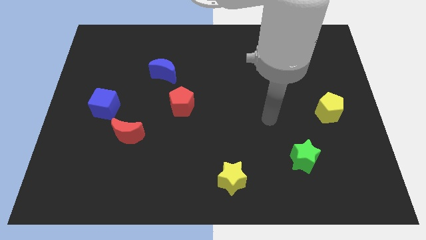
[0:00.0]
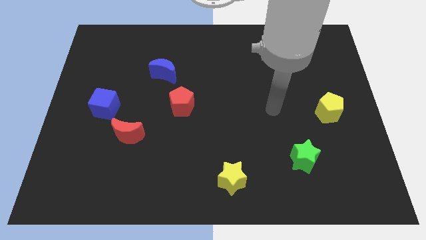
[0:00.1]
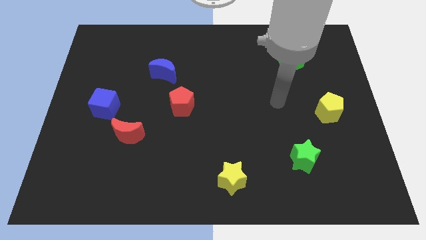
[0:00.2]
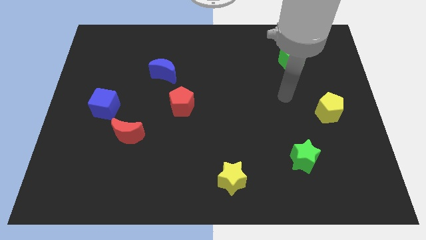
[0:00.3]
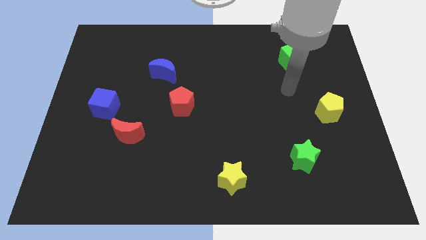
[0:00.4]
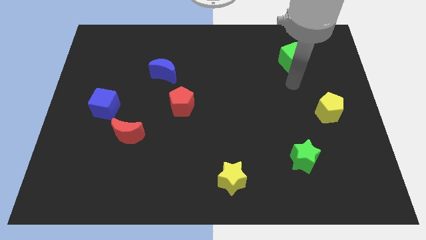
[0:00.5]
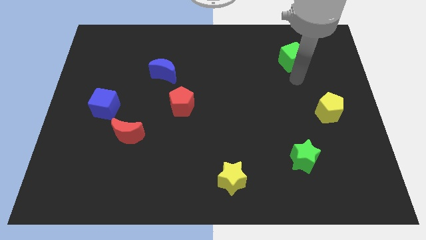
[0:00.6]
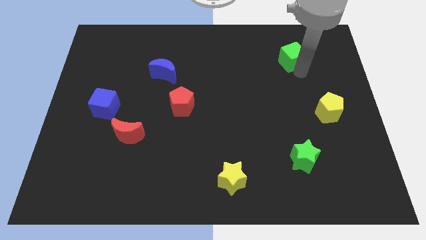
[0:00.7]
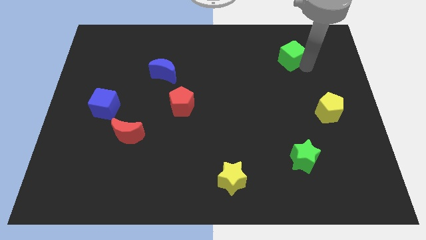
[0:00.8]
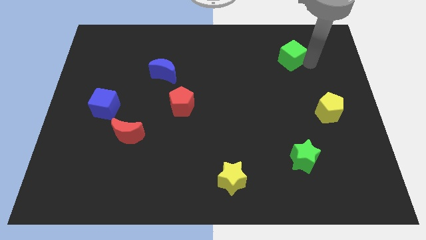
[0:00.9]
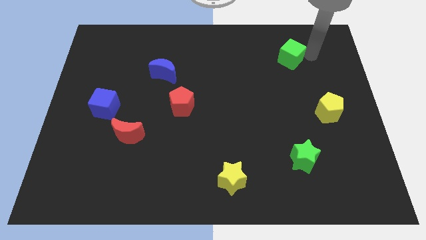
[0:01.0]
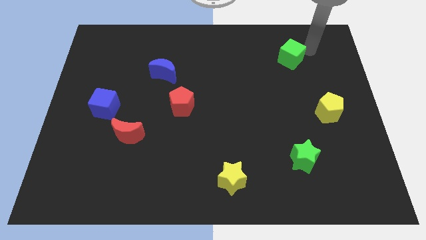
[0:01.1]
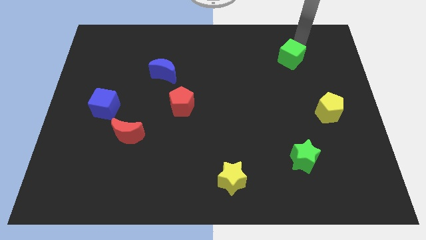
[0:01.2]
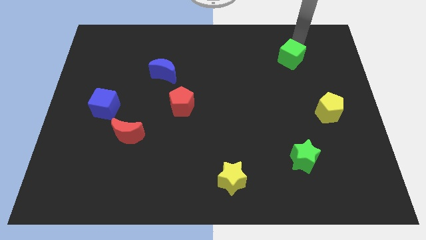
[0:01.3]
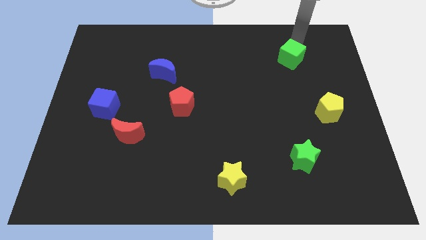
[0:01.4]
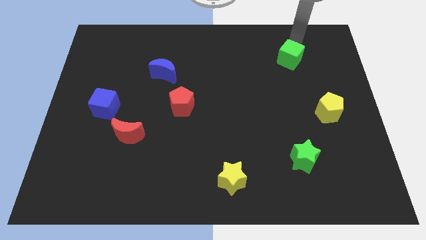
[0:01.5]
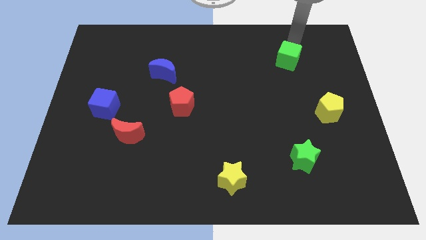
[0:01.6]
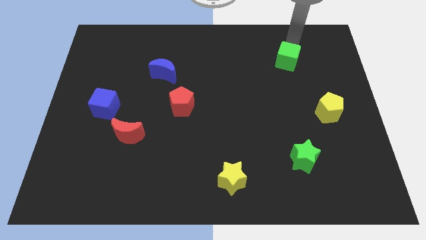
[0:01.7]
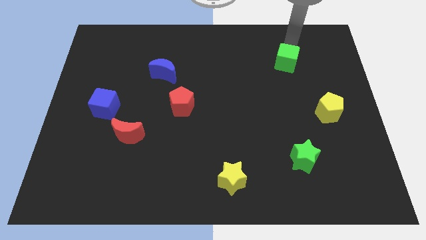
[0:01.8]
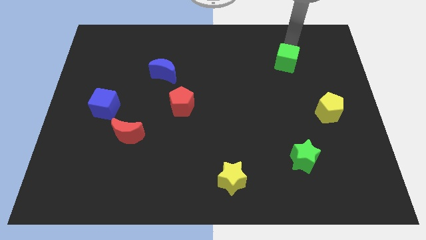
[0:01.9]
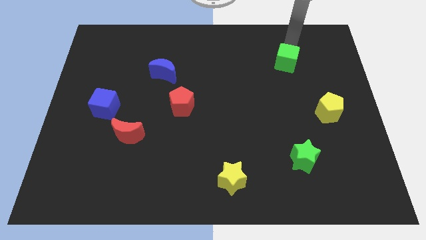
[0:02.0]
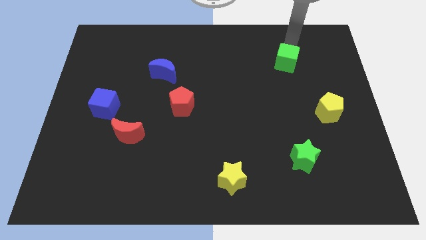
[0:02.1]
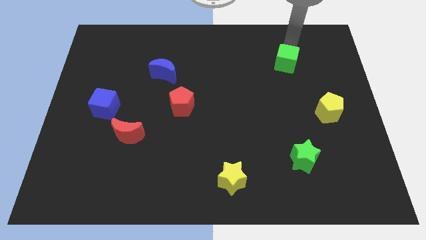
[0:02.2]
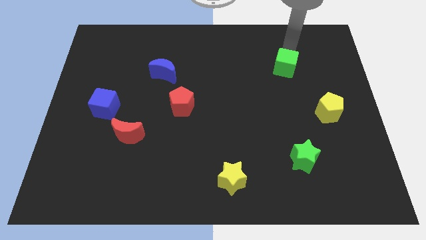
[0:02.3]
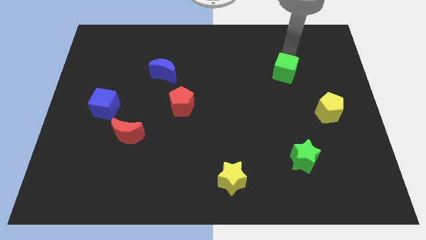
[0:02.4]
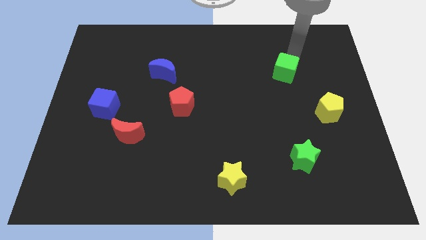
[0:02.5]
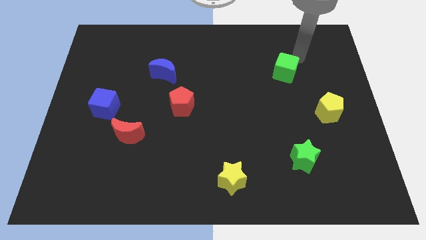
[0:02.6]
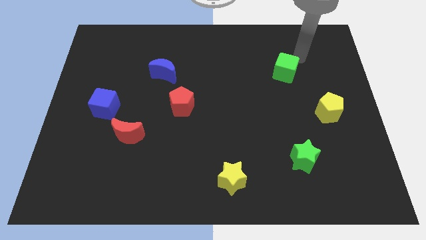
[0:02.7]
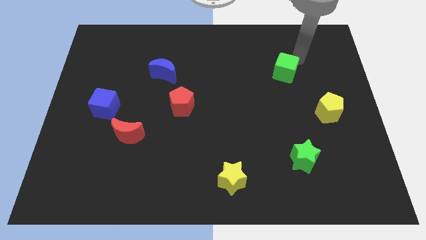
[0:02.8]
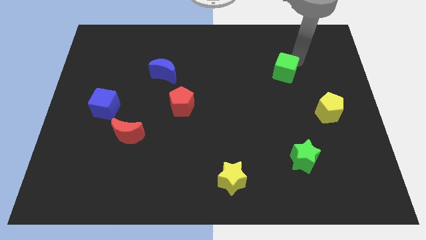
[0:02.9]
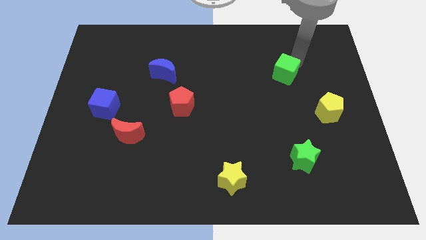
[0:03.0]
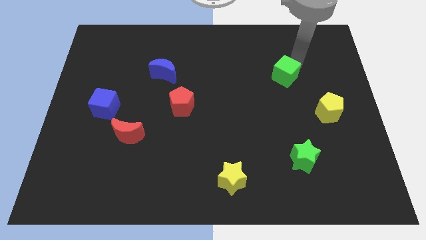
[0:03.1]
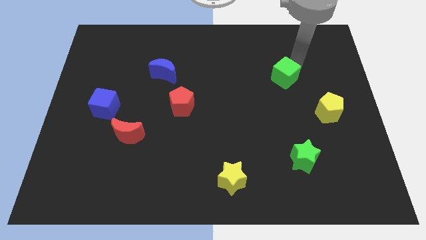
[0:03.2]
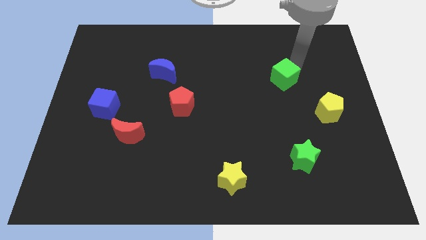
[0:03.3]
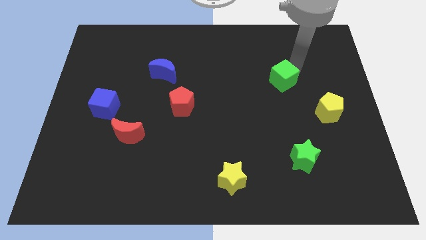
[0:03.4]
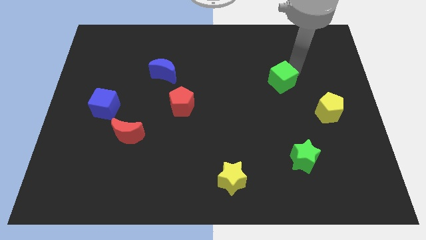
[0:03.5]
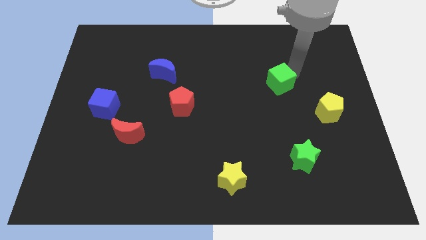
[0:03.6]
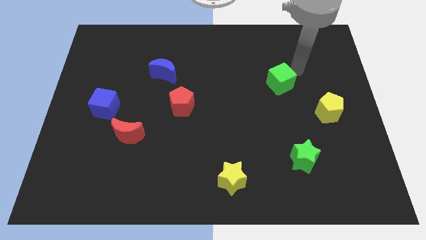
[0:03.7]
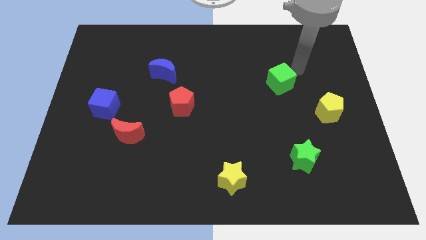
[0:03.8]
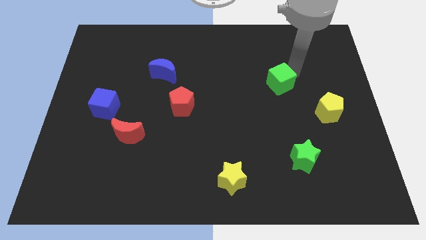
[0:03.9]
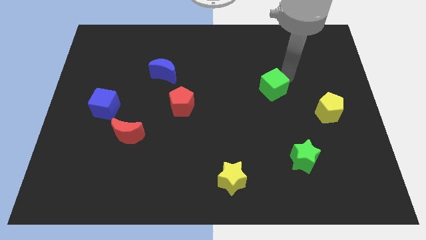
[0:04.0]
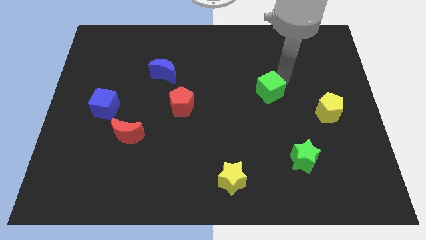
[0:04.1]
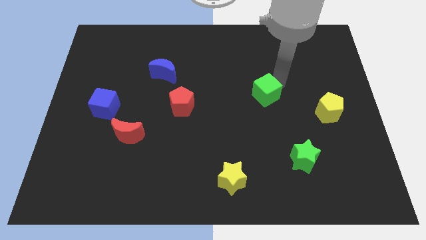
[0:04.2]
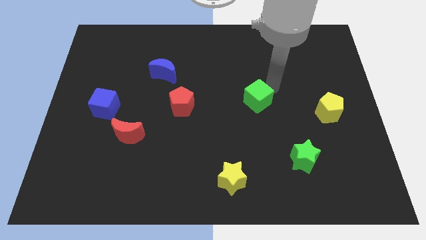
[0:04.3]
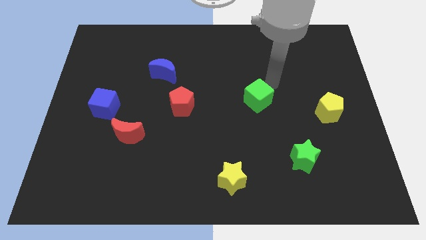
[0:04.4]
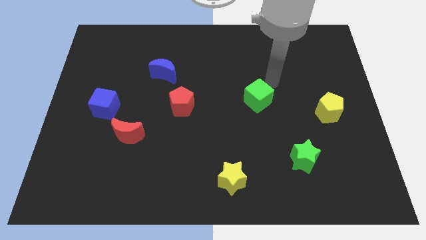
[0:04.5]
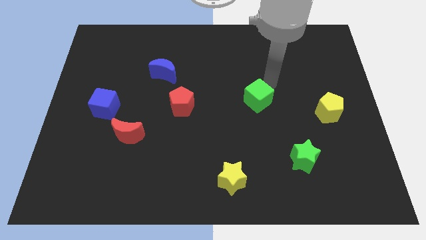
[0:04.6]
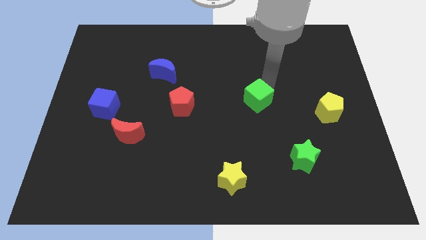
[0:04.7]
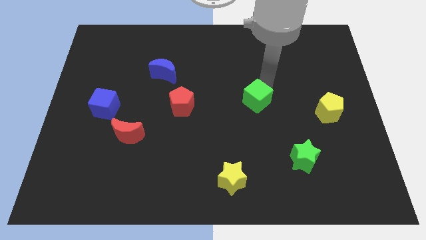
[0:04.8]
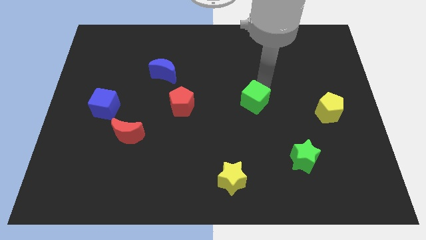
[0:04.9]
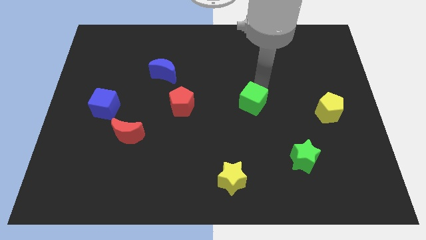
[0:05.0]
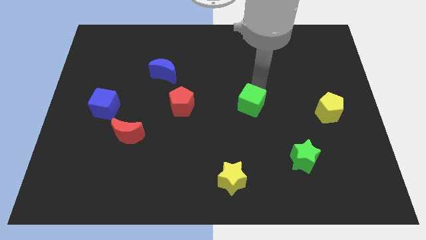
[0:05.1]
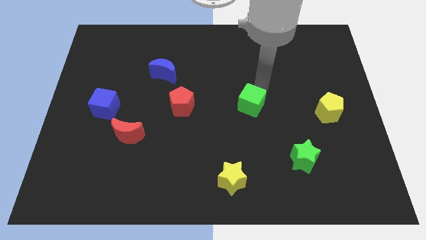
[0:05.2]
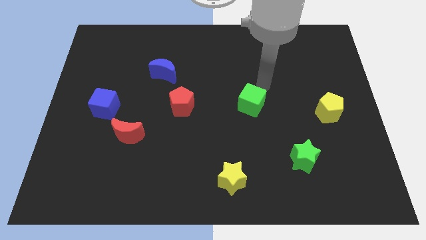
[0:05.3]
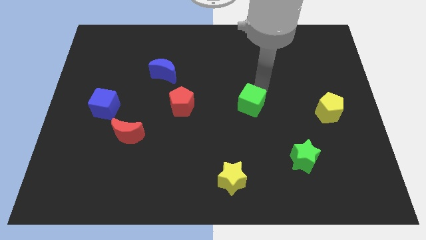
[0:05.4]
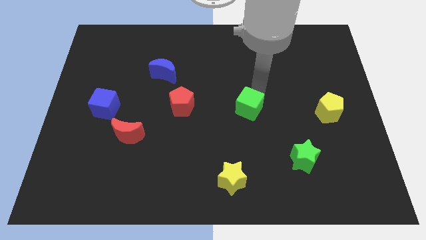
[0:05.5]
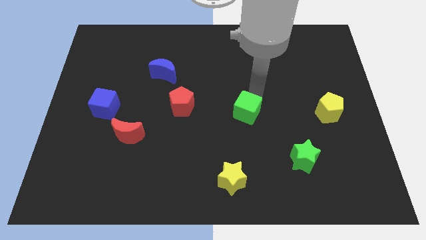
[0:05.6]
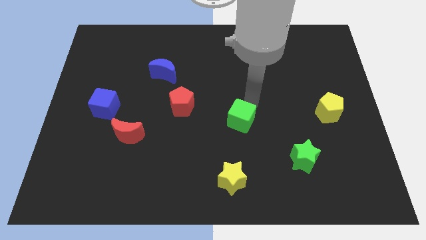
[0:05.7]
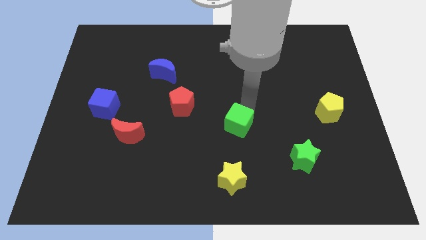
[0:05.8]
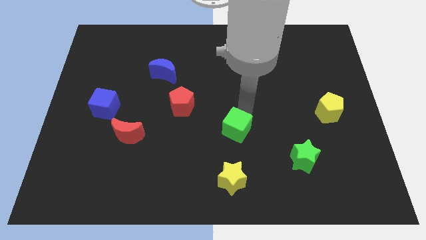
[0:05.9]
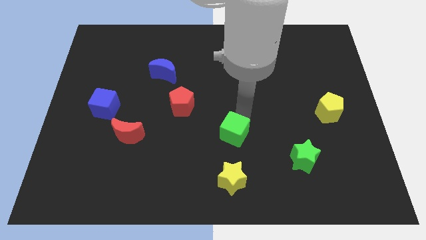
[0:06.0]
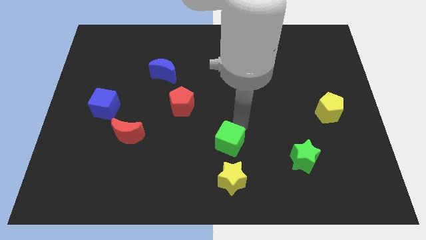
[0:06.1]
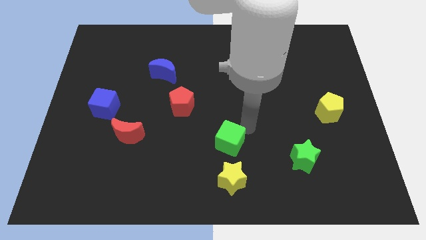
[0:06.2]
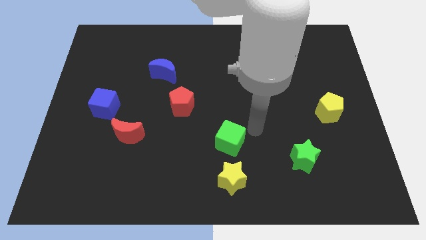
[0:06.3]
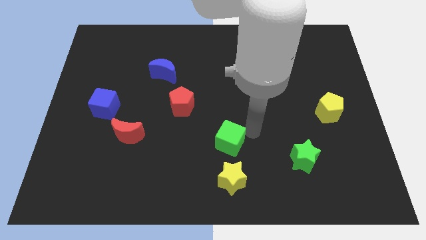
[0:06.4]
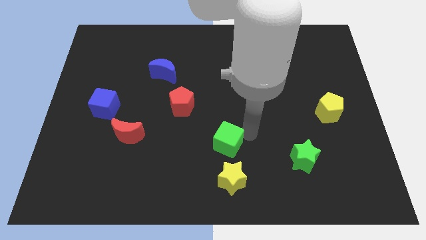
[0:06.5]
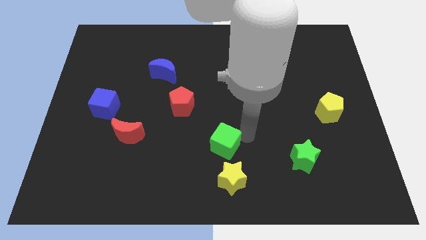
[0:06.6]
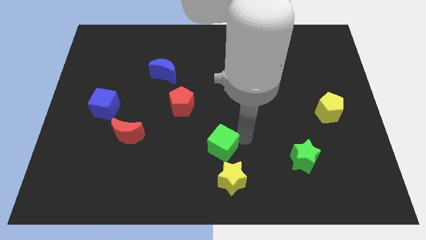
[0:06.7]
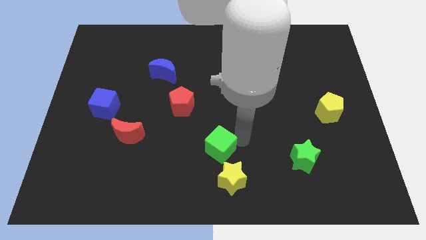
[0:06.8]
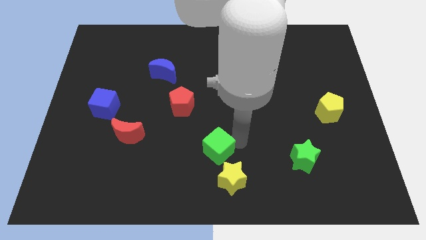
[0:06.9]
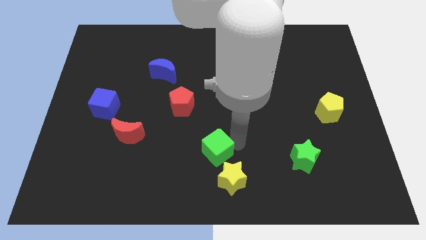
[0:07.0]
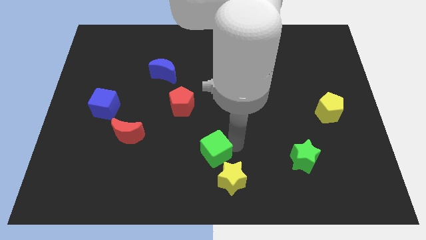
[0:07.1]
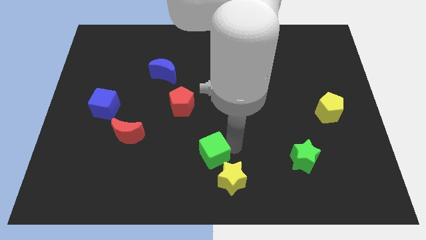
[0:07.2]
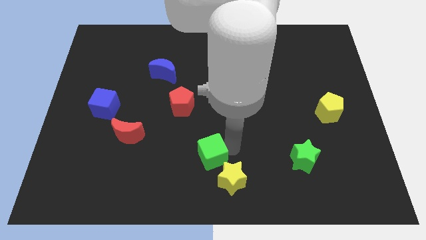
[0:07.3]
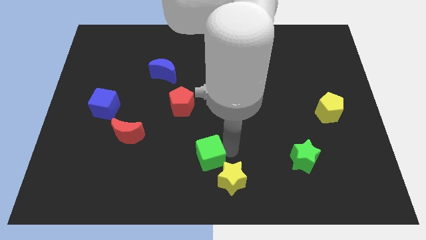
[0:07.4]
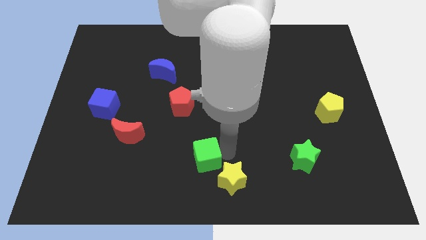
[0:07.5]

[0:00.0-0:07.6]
slide the green cube left of the yellow star

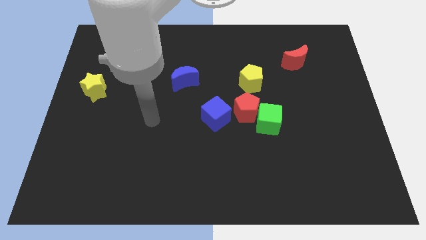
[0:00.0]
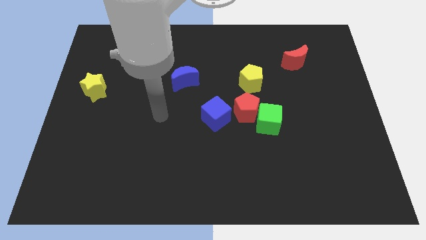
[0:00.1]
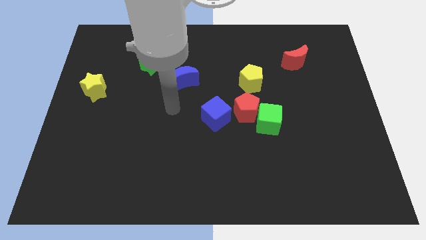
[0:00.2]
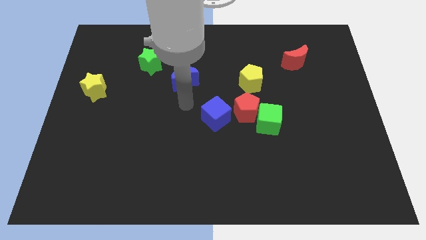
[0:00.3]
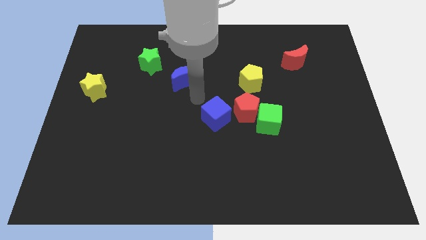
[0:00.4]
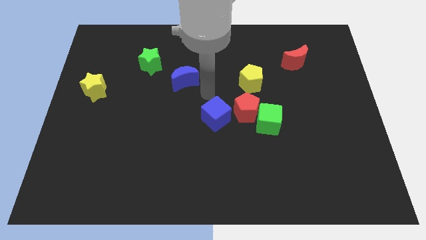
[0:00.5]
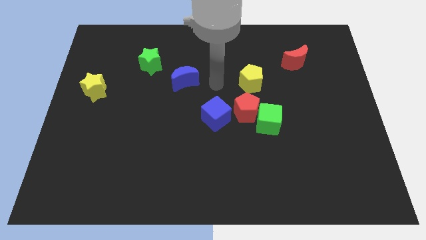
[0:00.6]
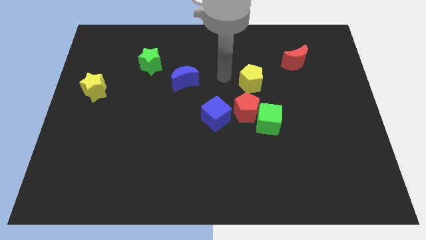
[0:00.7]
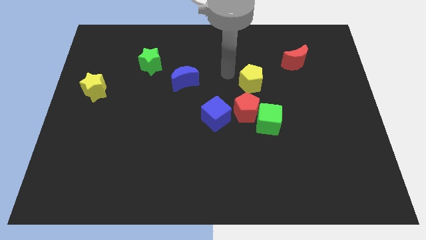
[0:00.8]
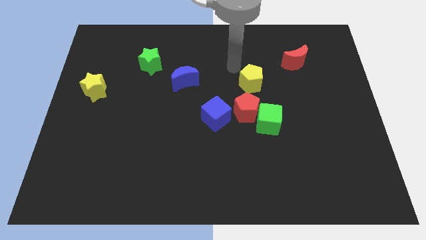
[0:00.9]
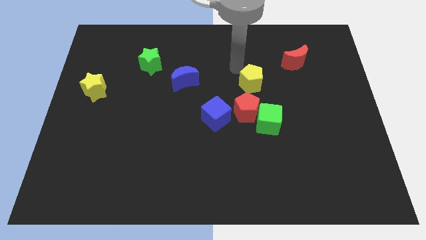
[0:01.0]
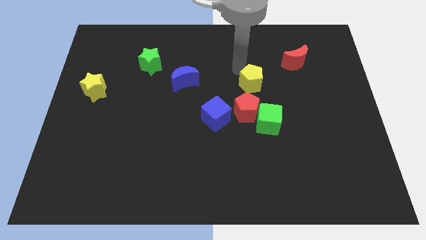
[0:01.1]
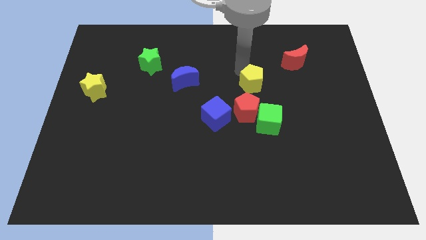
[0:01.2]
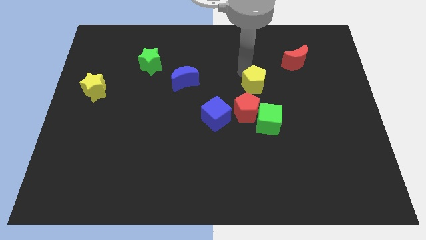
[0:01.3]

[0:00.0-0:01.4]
push the yellow pentagon to the top right of the red pentagon
